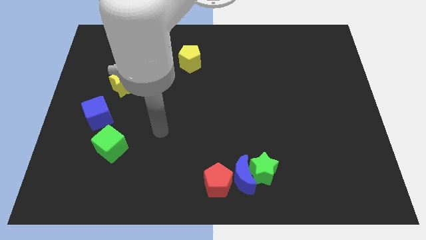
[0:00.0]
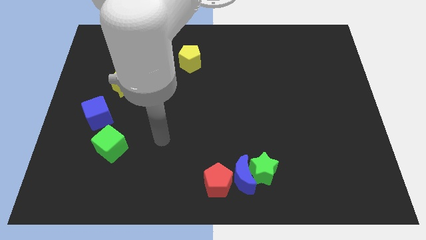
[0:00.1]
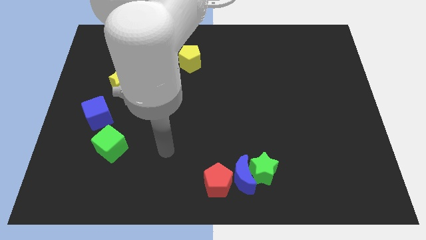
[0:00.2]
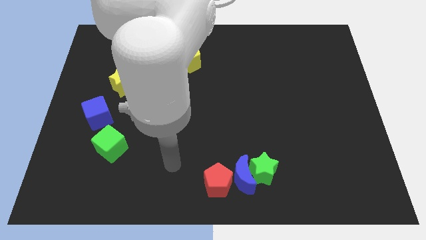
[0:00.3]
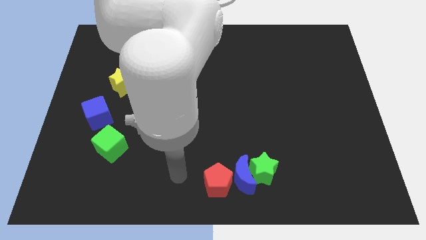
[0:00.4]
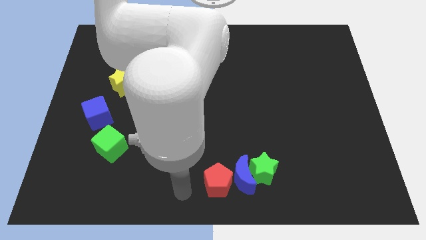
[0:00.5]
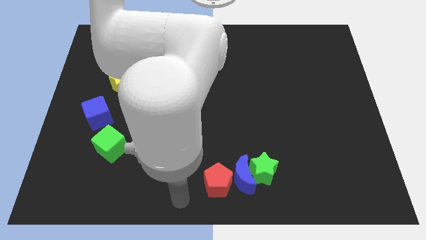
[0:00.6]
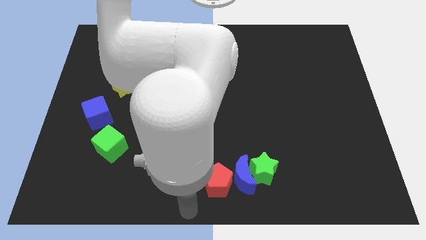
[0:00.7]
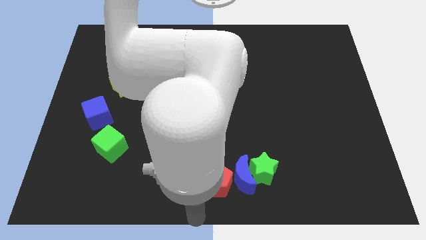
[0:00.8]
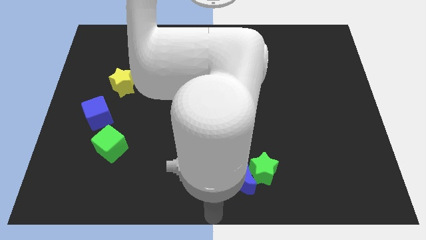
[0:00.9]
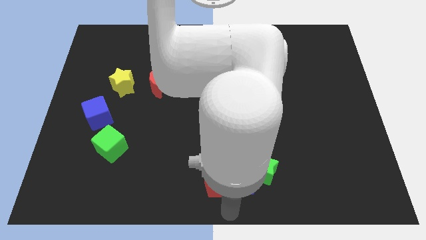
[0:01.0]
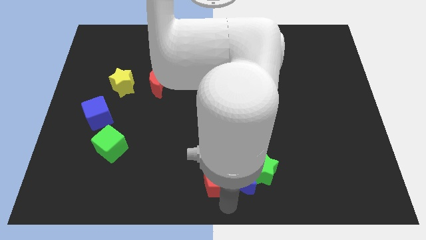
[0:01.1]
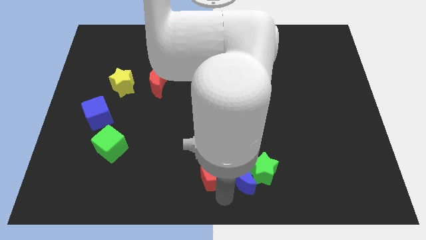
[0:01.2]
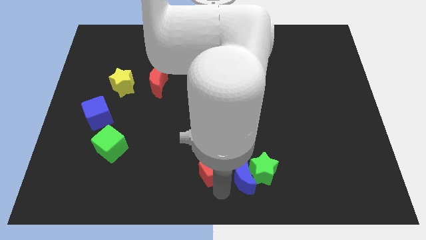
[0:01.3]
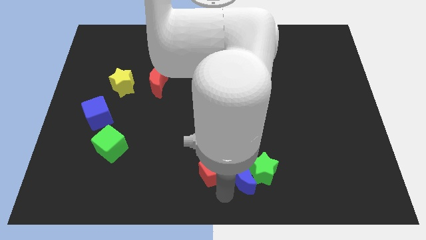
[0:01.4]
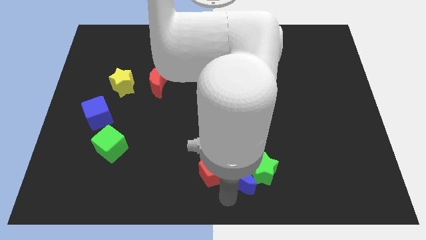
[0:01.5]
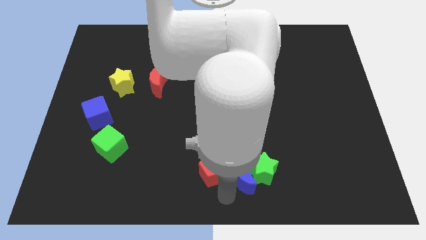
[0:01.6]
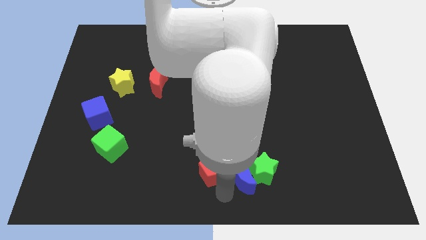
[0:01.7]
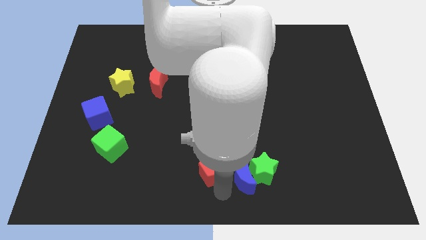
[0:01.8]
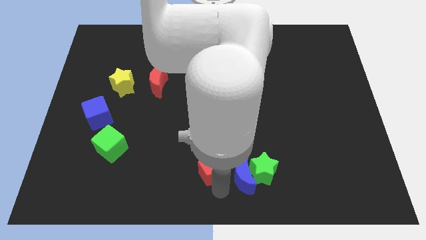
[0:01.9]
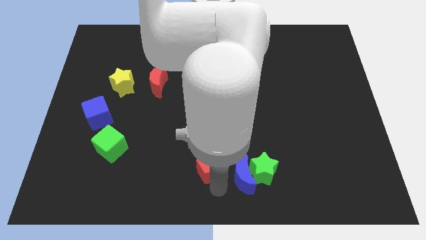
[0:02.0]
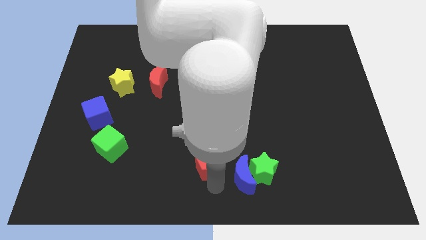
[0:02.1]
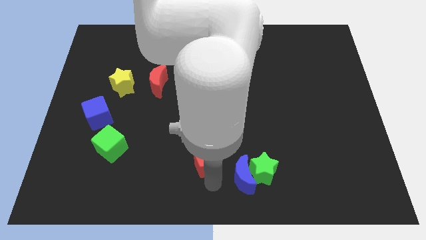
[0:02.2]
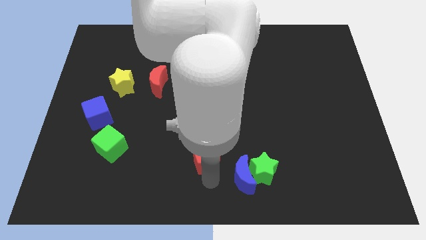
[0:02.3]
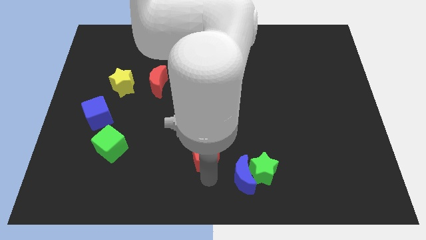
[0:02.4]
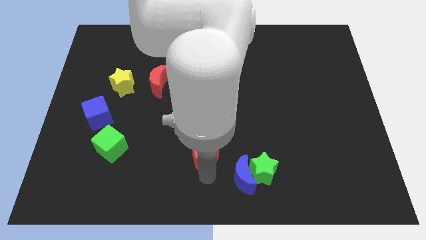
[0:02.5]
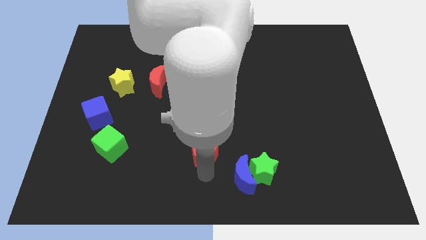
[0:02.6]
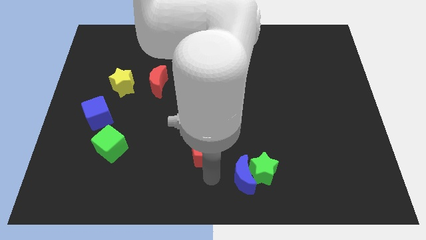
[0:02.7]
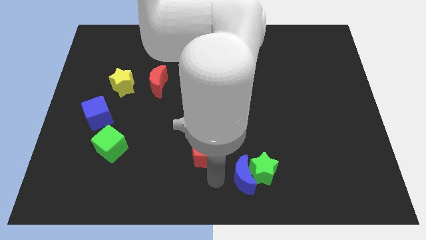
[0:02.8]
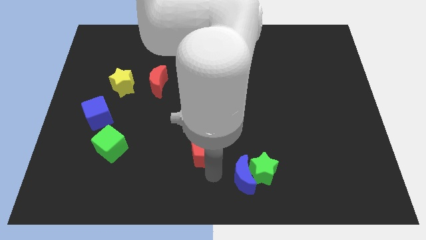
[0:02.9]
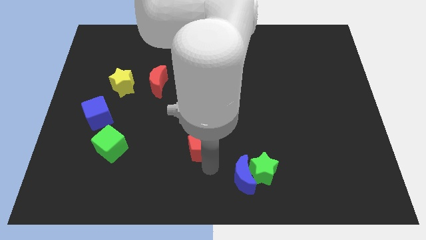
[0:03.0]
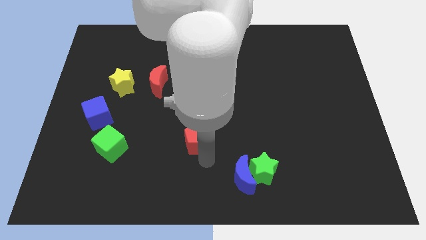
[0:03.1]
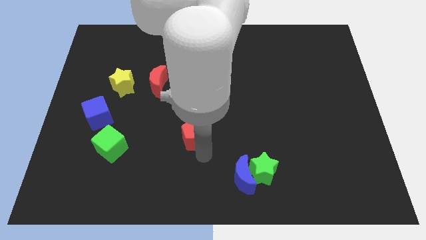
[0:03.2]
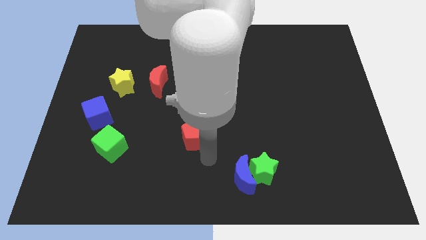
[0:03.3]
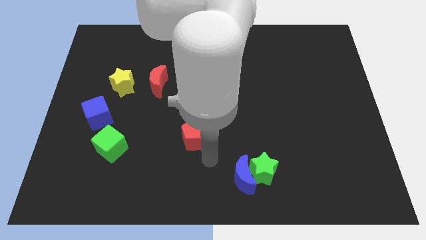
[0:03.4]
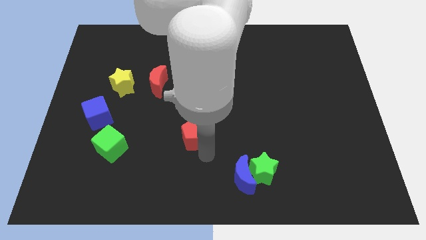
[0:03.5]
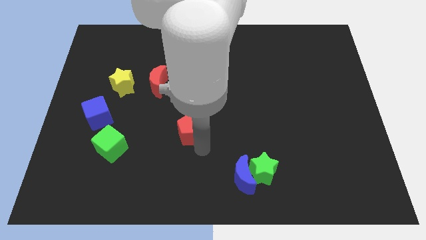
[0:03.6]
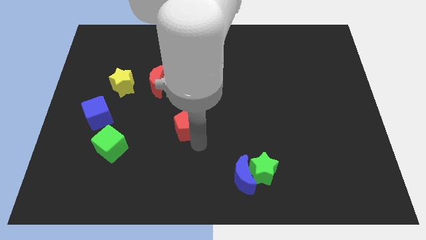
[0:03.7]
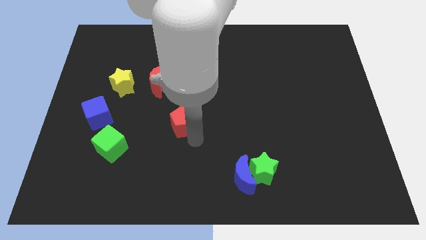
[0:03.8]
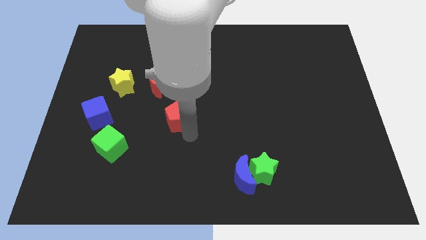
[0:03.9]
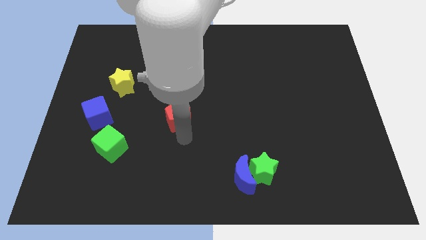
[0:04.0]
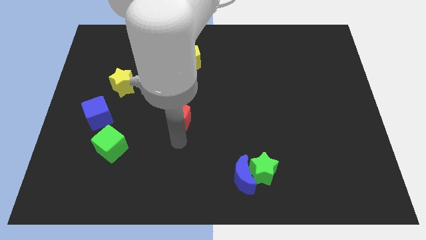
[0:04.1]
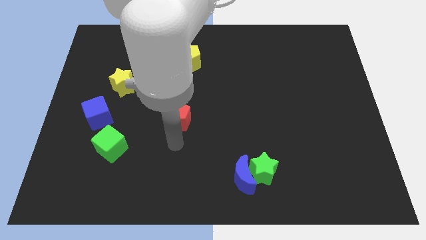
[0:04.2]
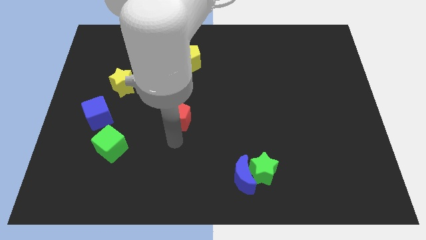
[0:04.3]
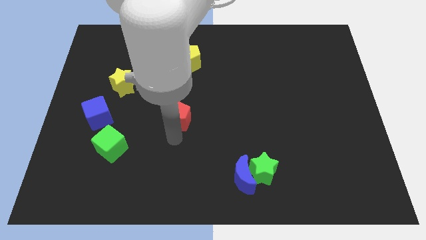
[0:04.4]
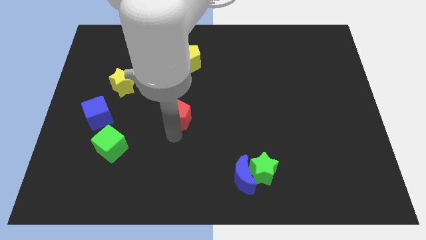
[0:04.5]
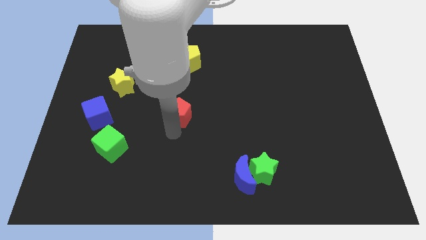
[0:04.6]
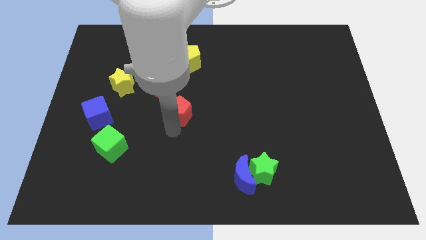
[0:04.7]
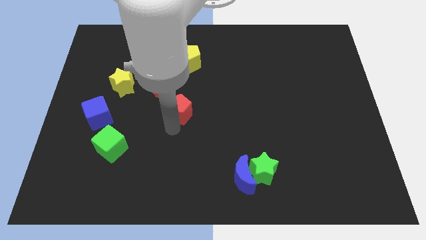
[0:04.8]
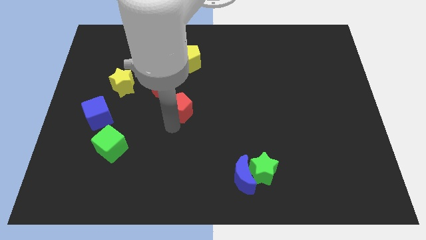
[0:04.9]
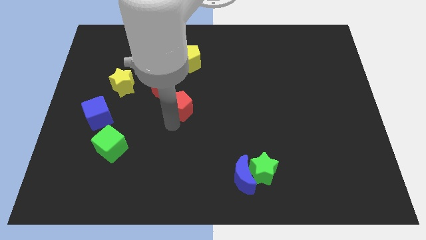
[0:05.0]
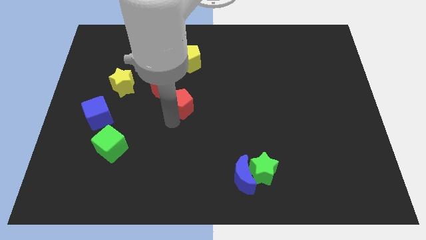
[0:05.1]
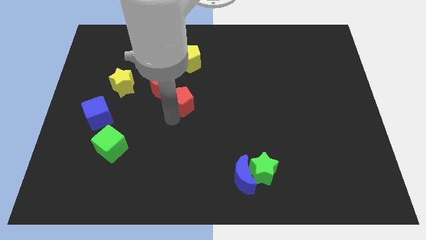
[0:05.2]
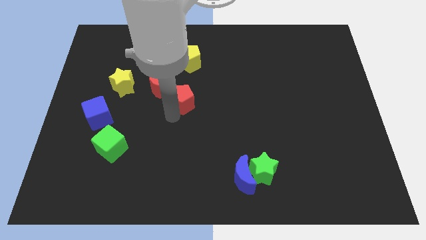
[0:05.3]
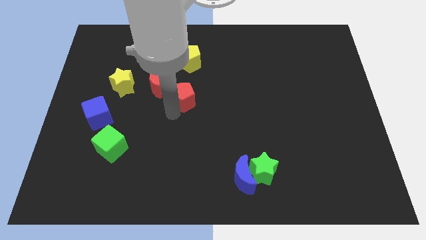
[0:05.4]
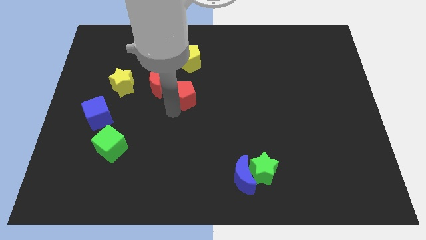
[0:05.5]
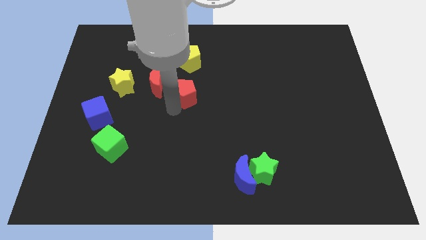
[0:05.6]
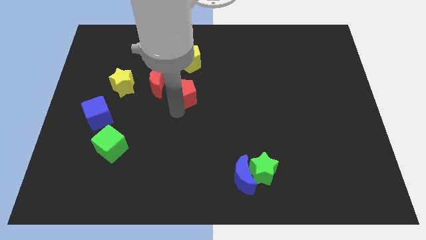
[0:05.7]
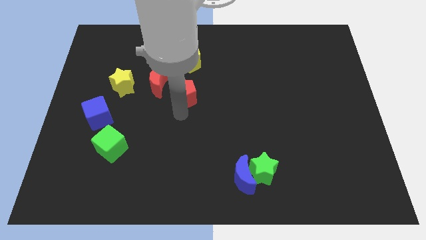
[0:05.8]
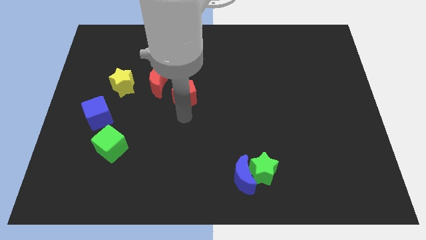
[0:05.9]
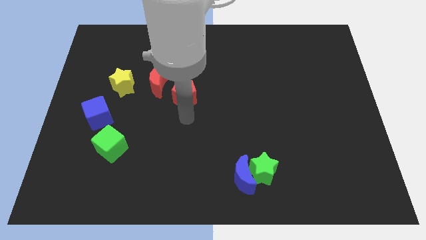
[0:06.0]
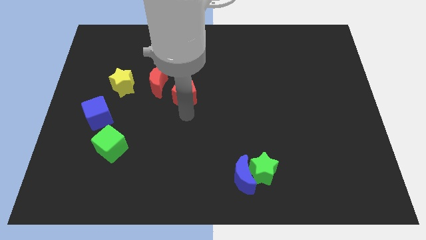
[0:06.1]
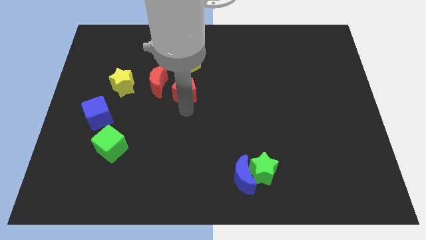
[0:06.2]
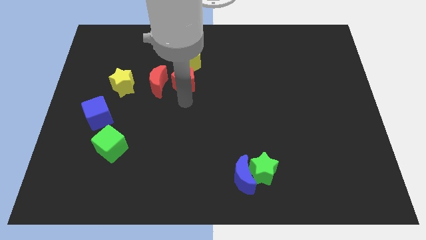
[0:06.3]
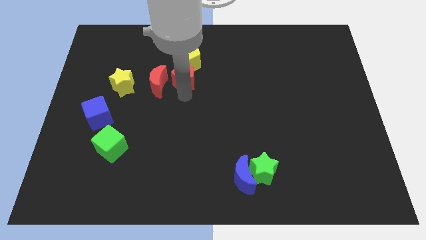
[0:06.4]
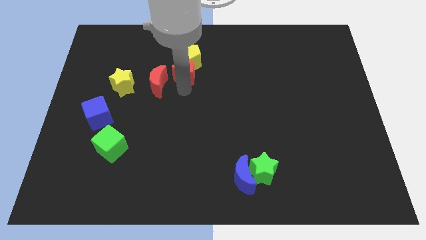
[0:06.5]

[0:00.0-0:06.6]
move the red pentagon towards the yellow pentagon
